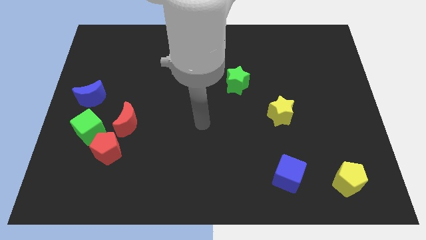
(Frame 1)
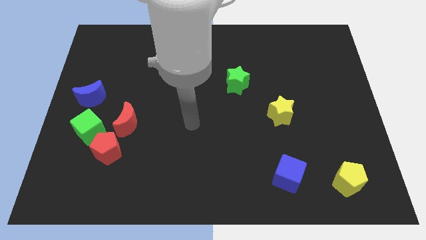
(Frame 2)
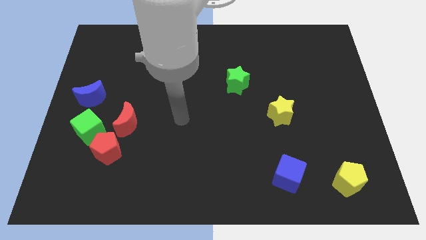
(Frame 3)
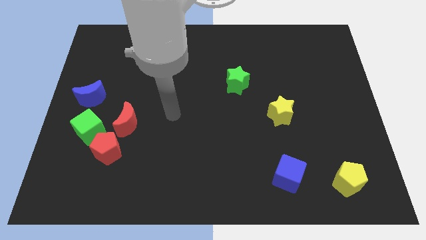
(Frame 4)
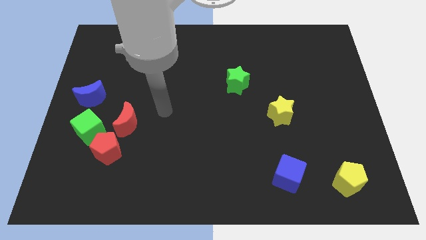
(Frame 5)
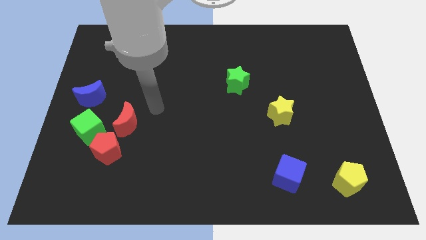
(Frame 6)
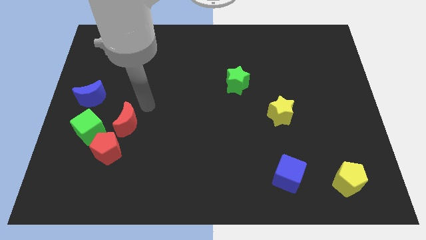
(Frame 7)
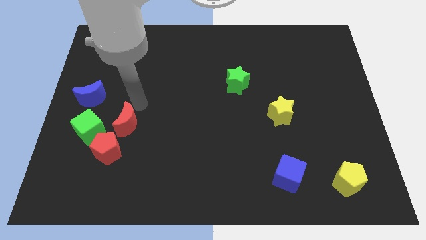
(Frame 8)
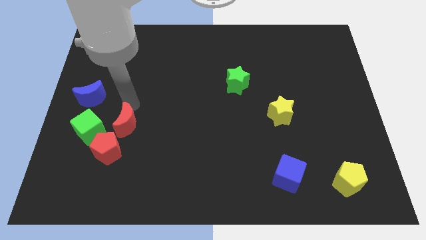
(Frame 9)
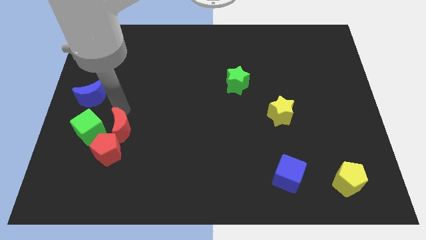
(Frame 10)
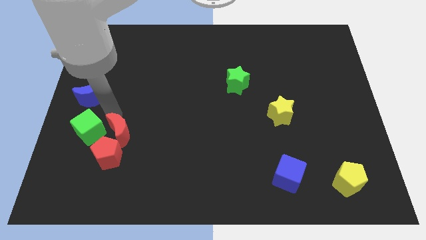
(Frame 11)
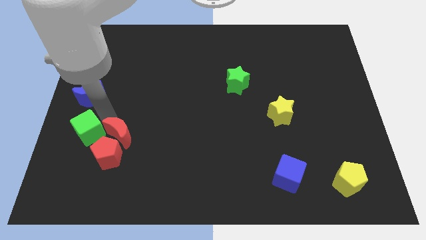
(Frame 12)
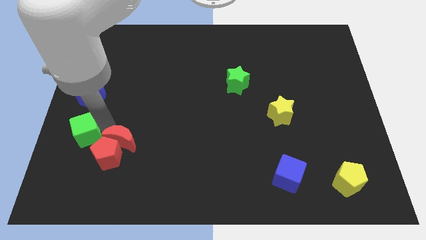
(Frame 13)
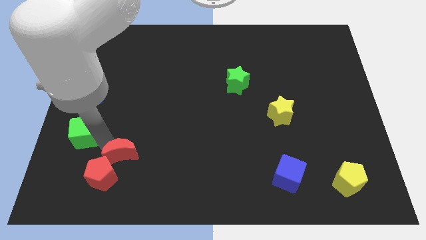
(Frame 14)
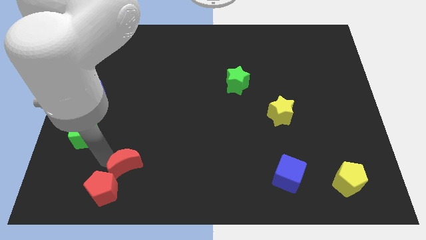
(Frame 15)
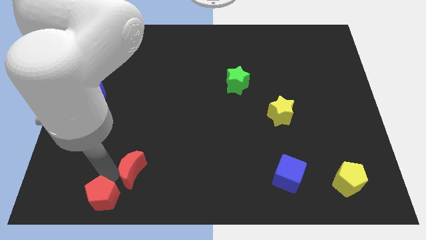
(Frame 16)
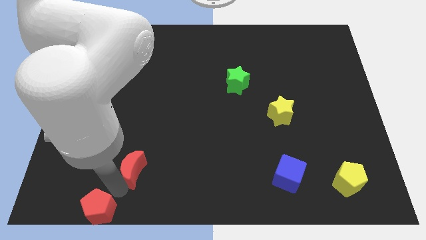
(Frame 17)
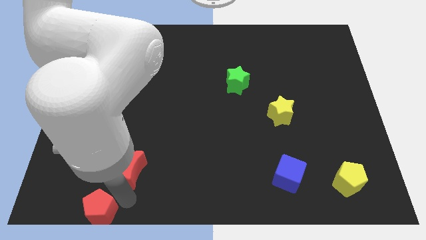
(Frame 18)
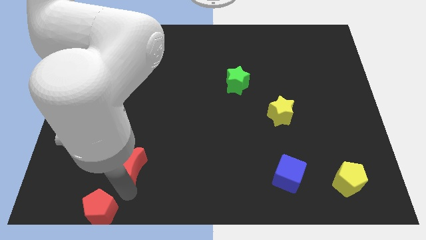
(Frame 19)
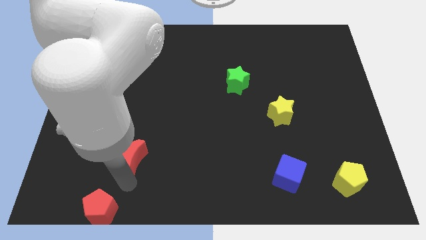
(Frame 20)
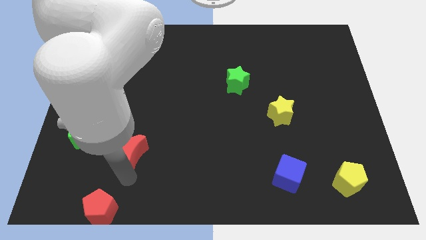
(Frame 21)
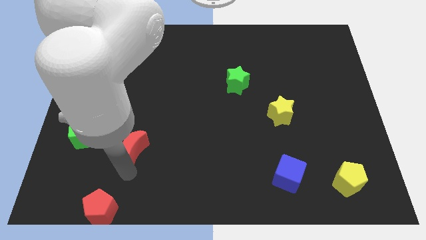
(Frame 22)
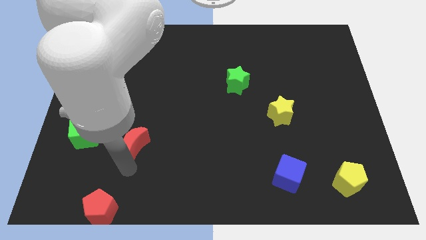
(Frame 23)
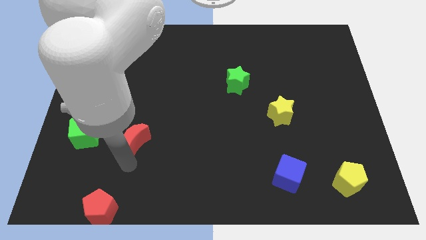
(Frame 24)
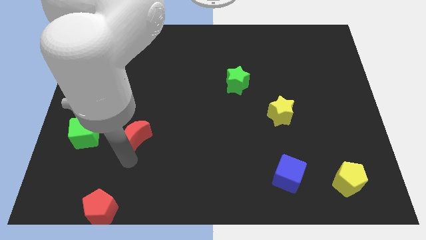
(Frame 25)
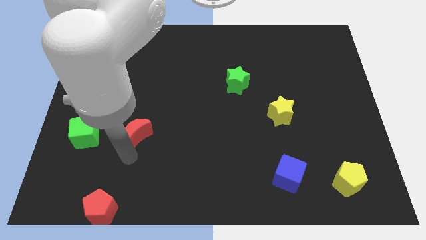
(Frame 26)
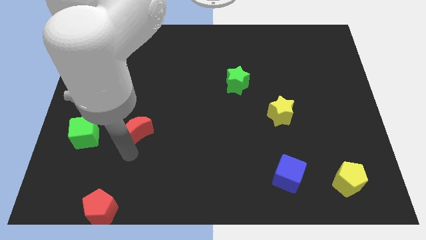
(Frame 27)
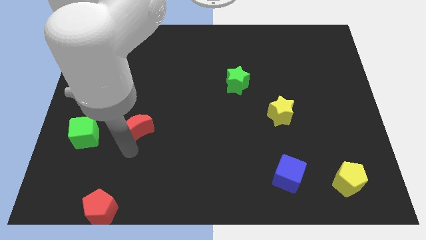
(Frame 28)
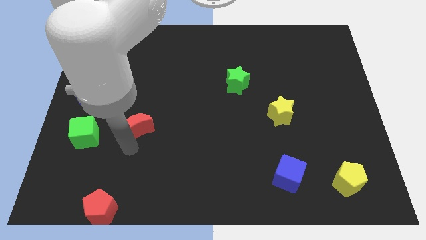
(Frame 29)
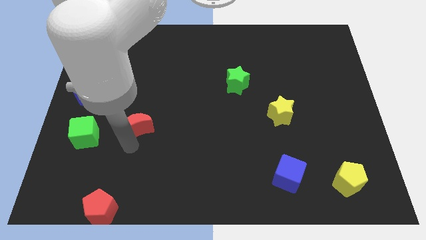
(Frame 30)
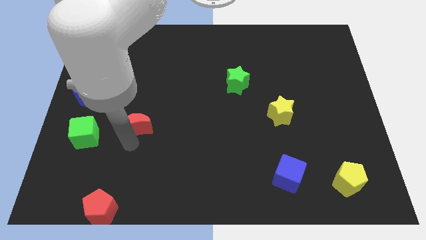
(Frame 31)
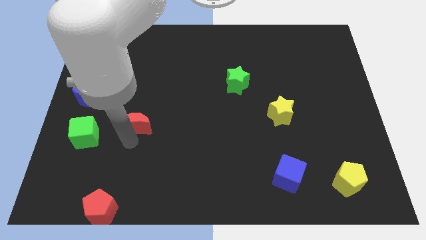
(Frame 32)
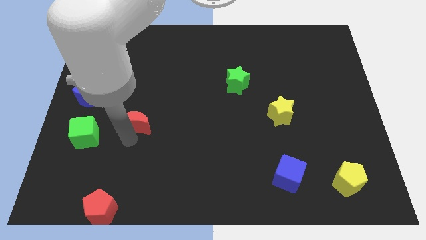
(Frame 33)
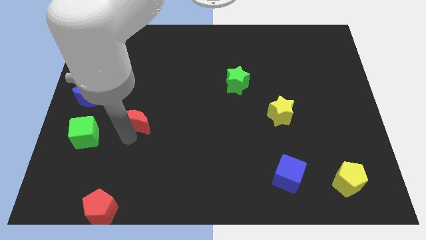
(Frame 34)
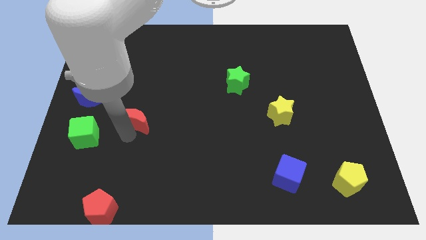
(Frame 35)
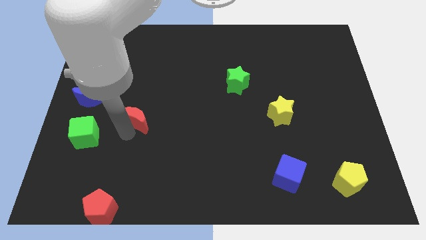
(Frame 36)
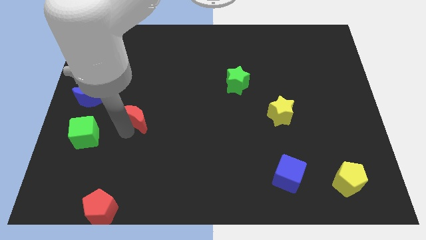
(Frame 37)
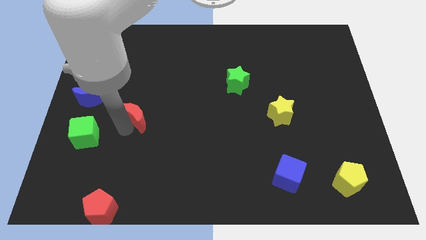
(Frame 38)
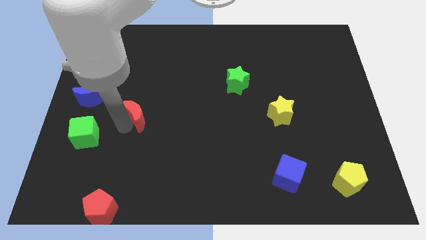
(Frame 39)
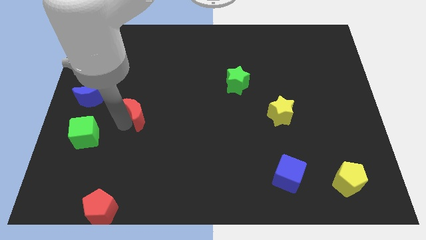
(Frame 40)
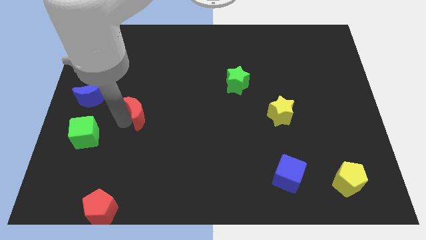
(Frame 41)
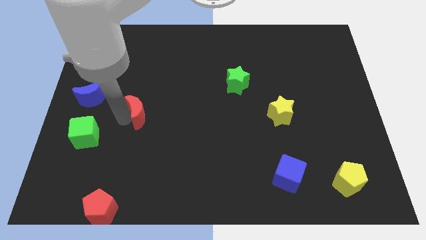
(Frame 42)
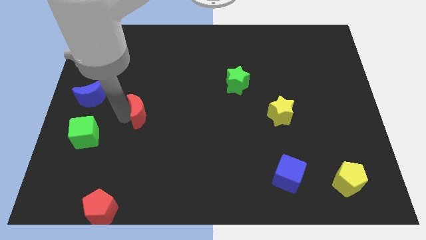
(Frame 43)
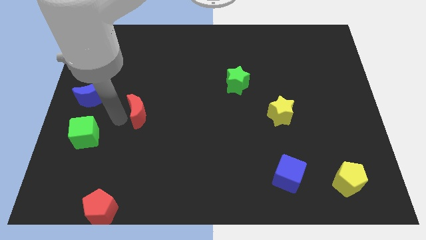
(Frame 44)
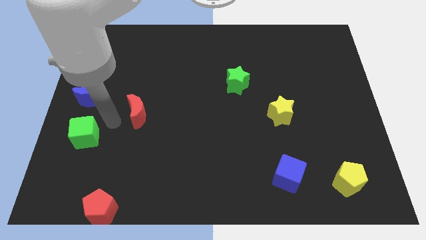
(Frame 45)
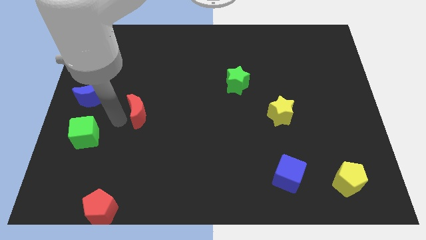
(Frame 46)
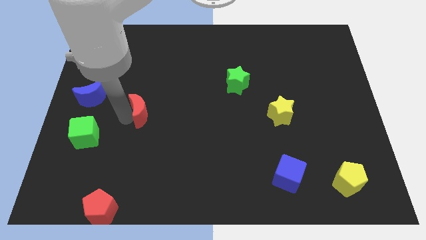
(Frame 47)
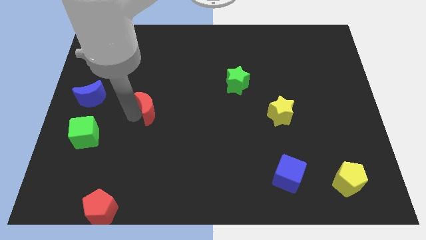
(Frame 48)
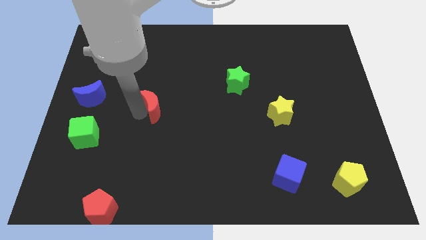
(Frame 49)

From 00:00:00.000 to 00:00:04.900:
slightly push the red moon up and then right

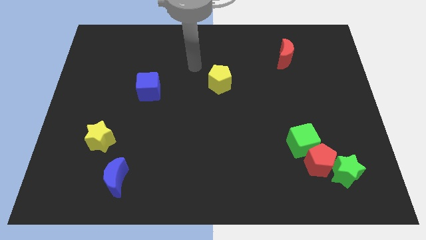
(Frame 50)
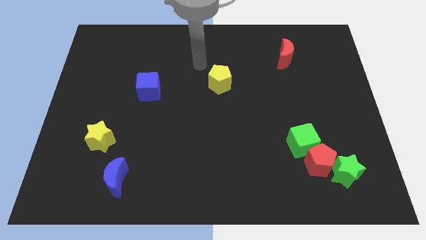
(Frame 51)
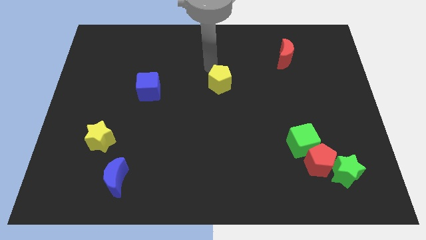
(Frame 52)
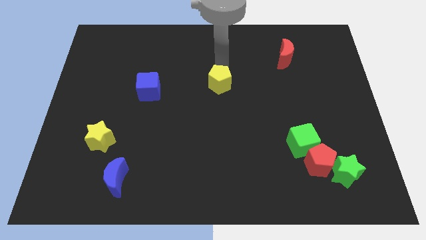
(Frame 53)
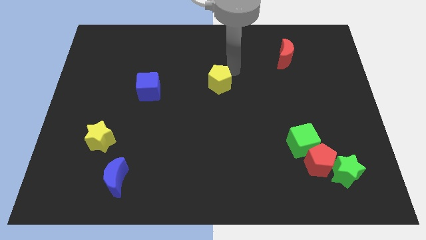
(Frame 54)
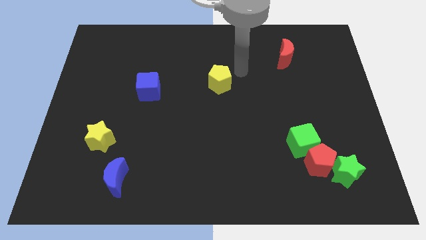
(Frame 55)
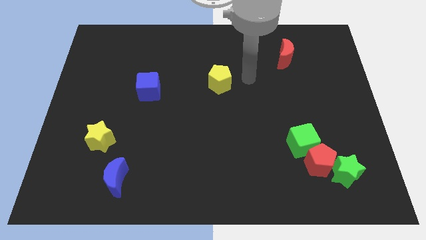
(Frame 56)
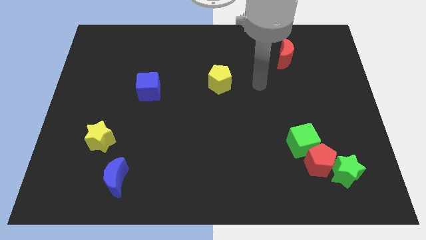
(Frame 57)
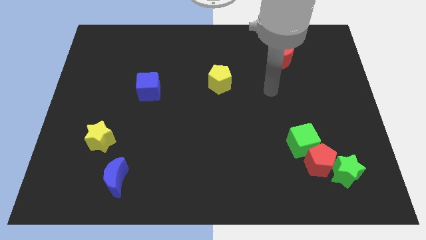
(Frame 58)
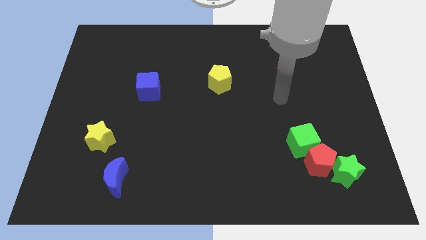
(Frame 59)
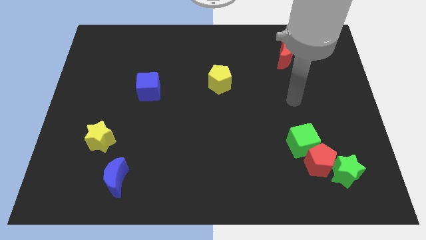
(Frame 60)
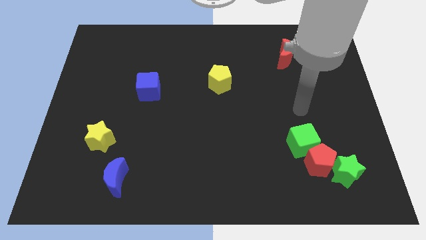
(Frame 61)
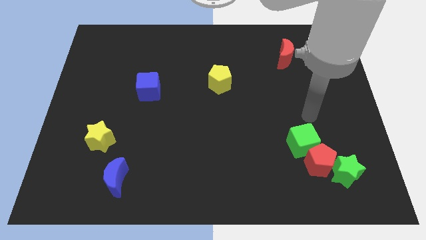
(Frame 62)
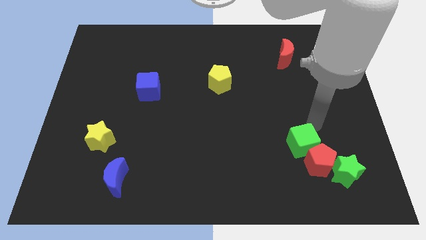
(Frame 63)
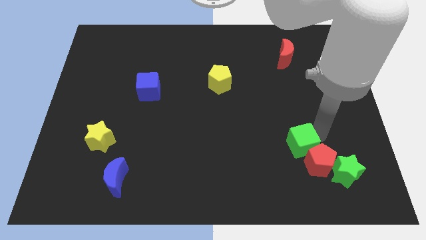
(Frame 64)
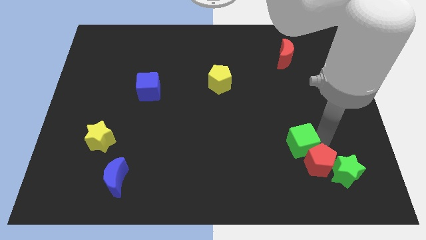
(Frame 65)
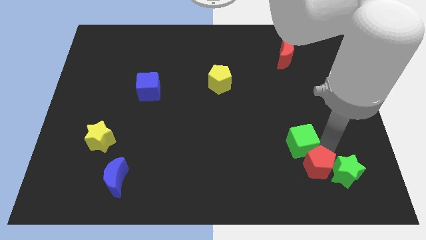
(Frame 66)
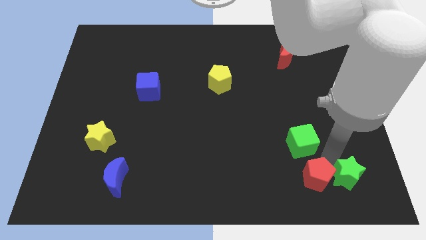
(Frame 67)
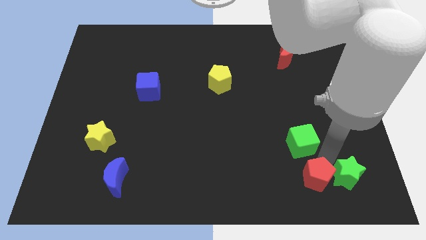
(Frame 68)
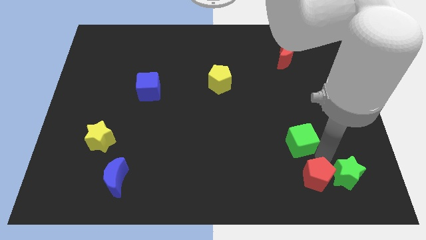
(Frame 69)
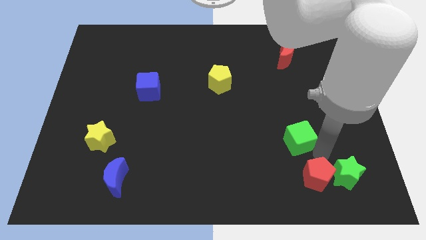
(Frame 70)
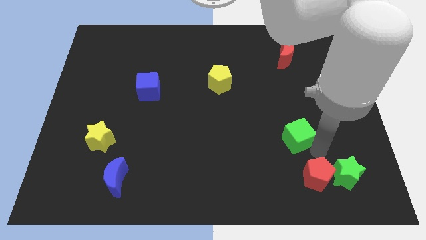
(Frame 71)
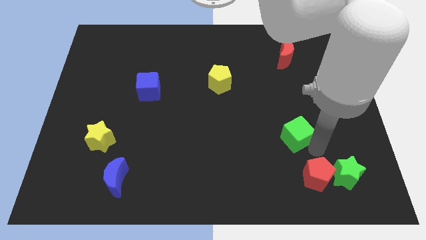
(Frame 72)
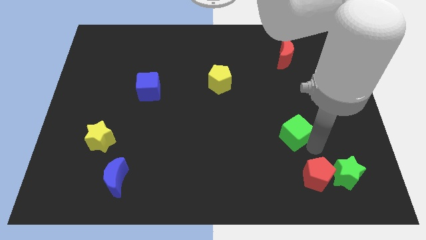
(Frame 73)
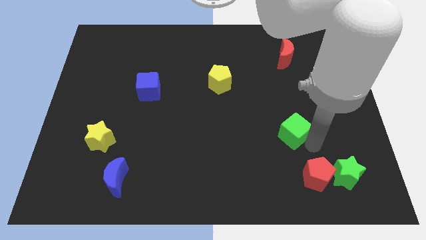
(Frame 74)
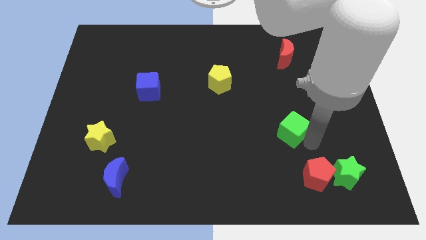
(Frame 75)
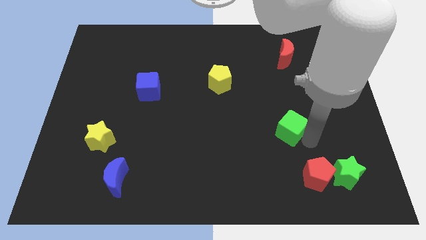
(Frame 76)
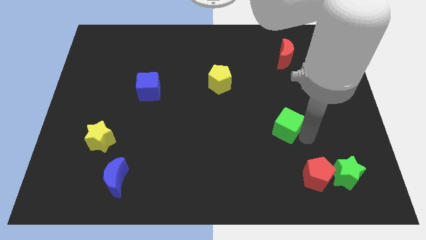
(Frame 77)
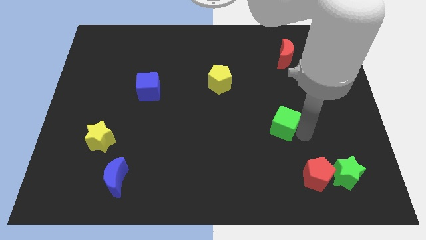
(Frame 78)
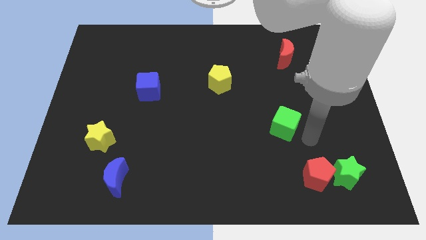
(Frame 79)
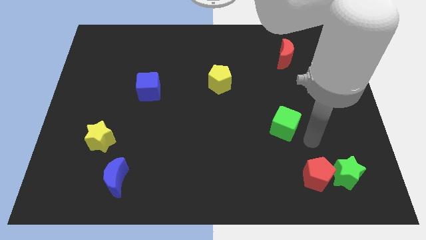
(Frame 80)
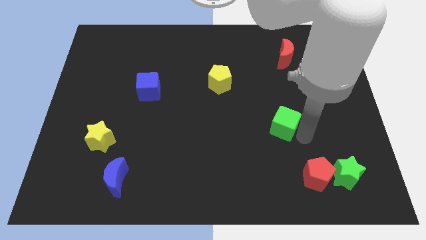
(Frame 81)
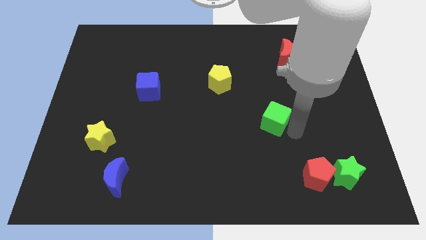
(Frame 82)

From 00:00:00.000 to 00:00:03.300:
move the green cube up and then left a little bit
